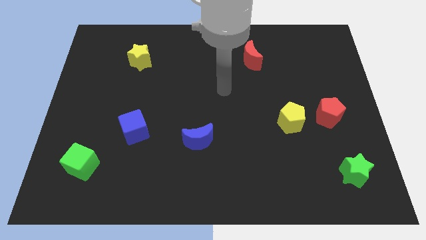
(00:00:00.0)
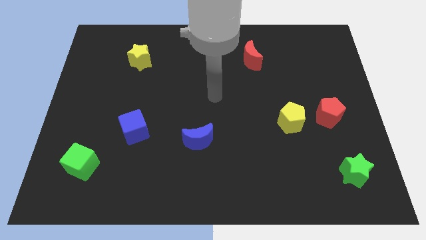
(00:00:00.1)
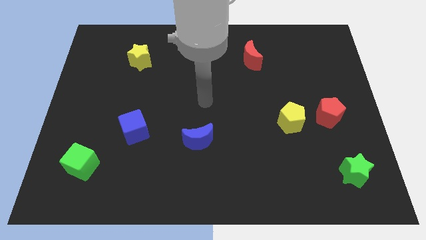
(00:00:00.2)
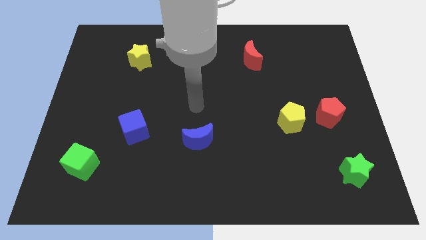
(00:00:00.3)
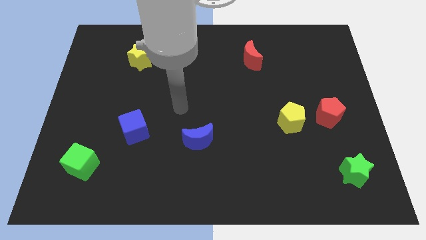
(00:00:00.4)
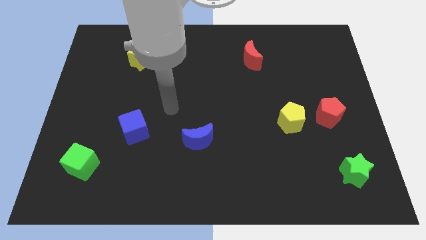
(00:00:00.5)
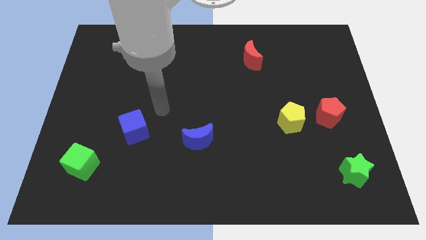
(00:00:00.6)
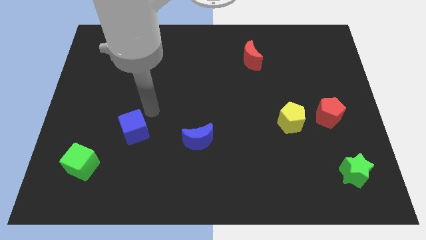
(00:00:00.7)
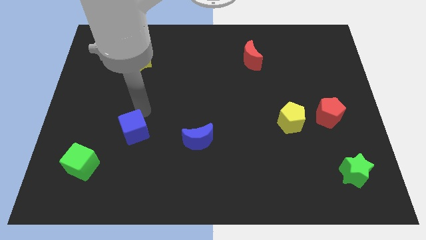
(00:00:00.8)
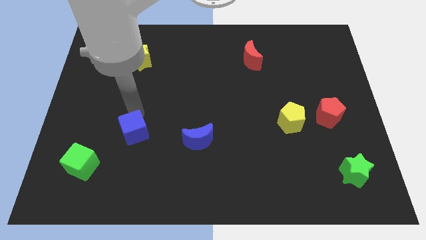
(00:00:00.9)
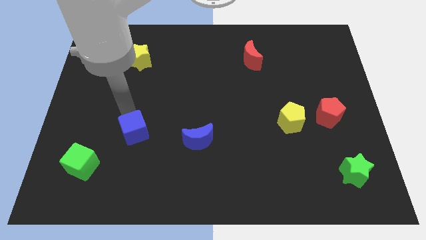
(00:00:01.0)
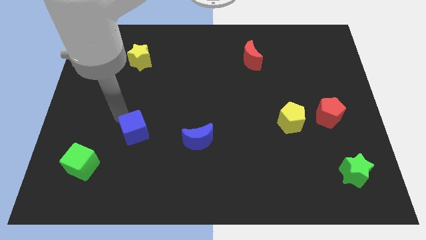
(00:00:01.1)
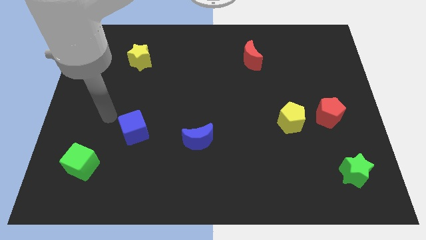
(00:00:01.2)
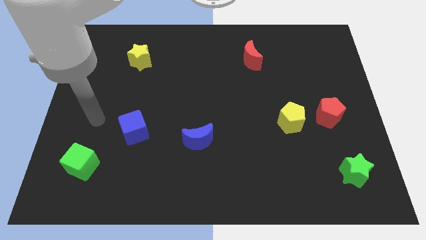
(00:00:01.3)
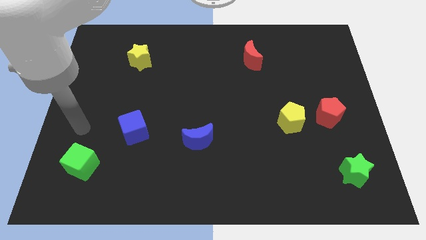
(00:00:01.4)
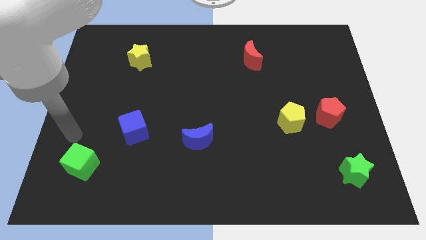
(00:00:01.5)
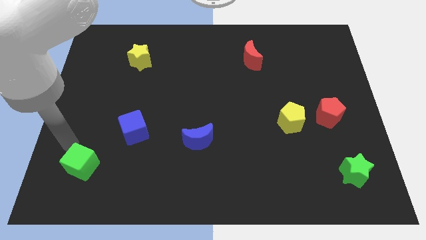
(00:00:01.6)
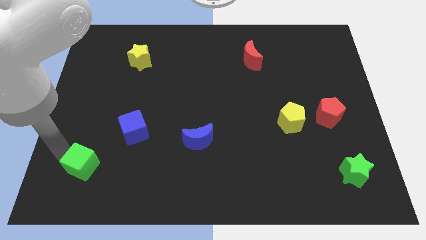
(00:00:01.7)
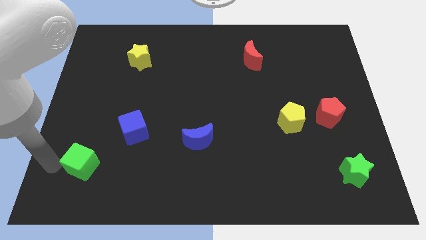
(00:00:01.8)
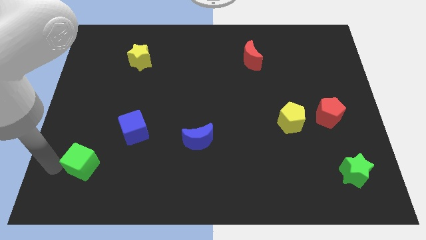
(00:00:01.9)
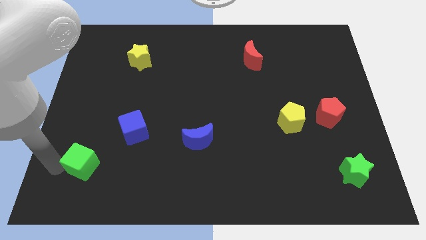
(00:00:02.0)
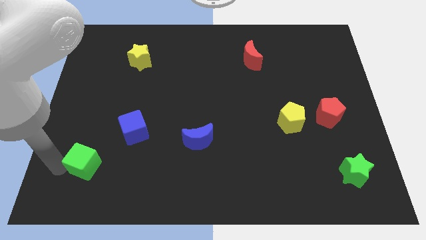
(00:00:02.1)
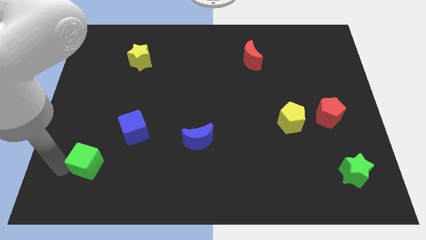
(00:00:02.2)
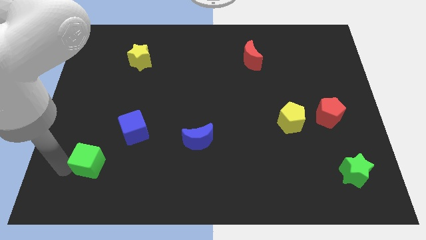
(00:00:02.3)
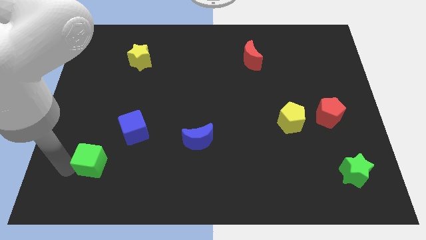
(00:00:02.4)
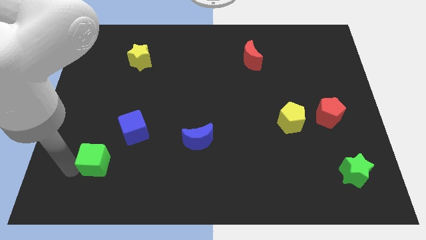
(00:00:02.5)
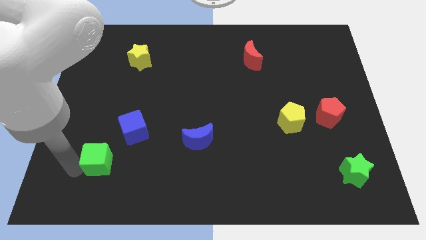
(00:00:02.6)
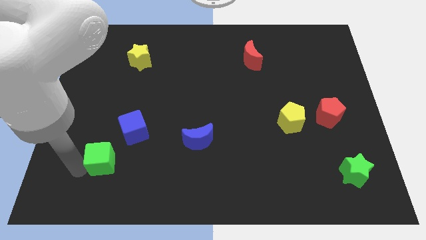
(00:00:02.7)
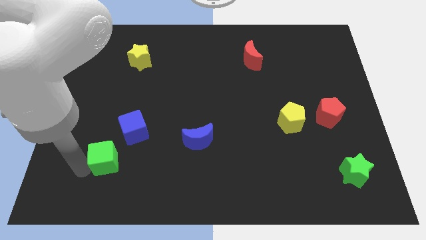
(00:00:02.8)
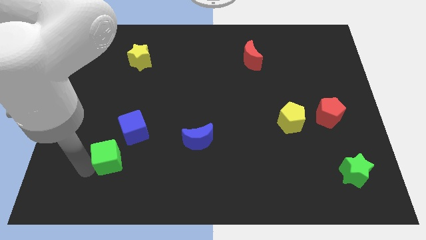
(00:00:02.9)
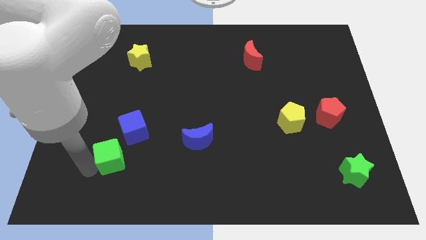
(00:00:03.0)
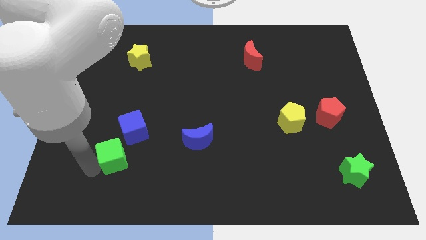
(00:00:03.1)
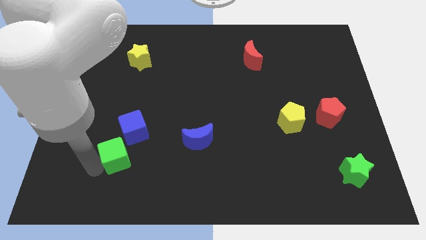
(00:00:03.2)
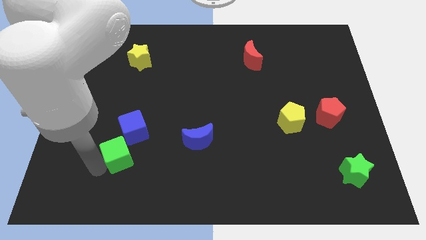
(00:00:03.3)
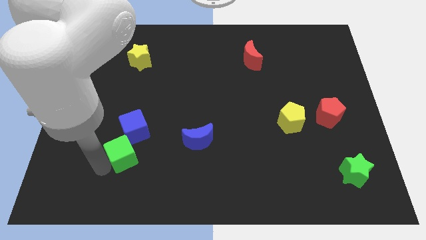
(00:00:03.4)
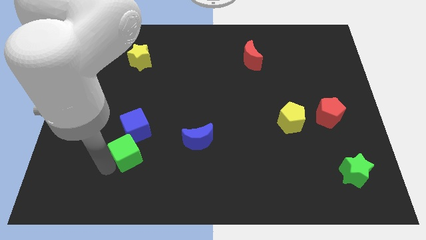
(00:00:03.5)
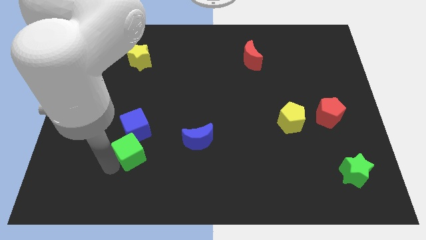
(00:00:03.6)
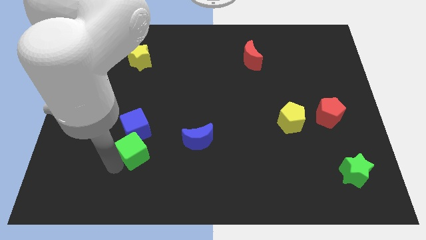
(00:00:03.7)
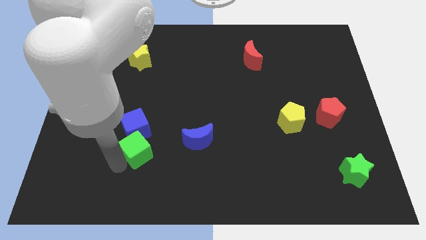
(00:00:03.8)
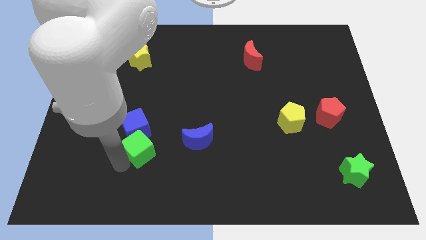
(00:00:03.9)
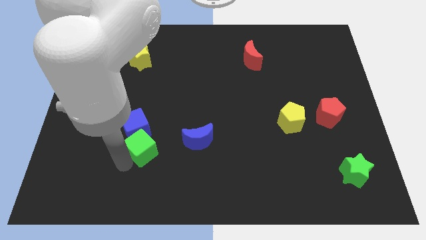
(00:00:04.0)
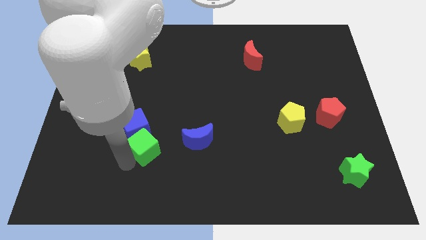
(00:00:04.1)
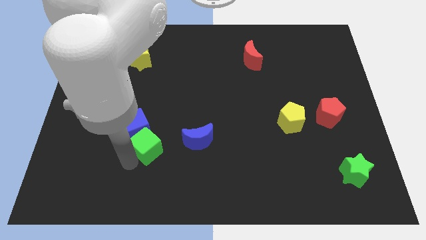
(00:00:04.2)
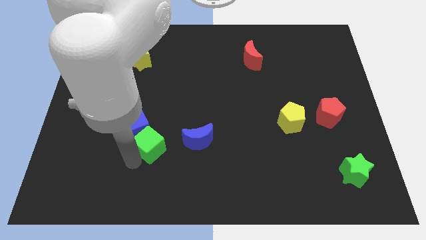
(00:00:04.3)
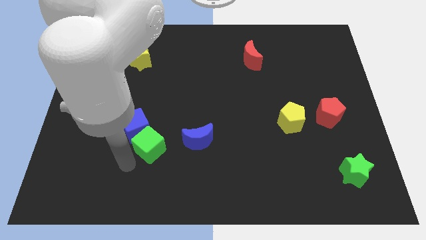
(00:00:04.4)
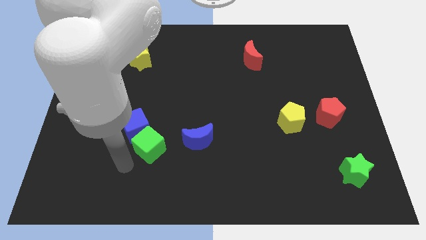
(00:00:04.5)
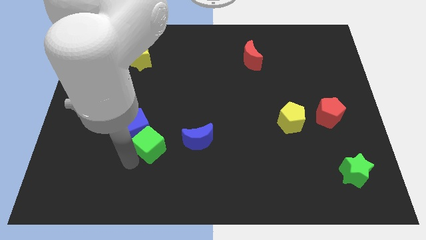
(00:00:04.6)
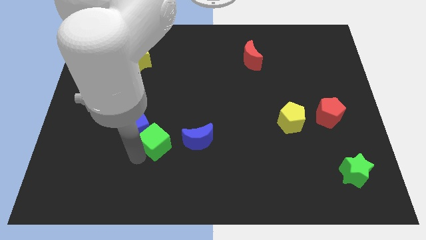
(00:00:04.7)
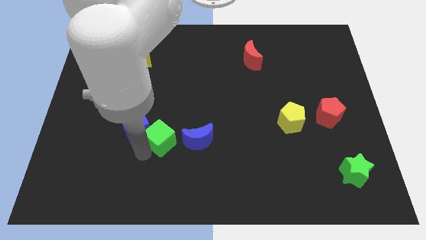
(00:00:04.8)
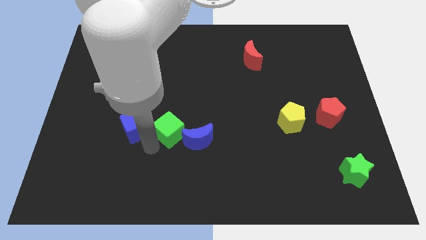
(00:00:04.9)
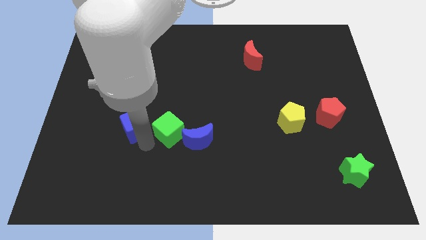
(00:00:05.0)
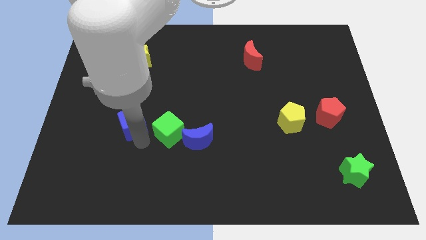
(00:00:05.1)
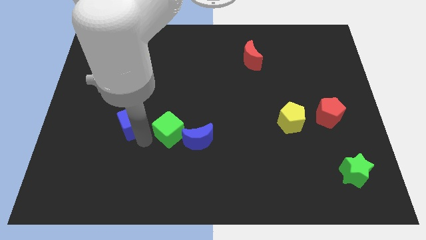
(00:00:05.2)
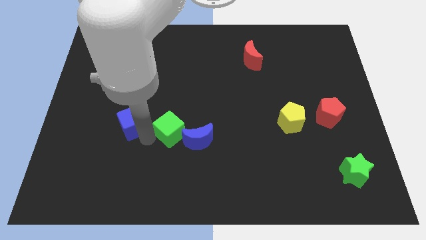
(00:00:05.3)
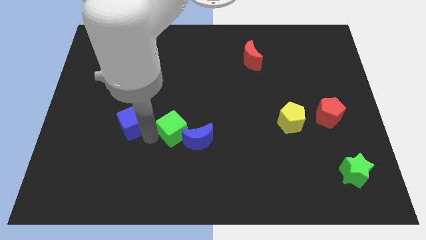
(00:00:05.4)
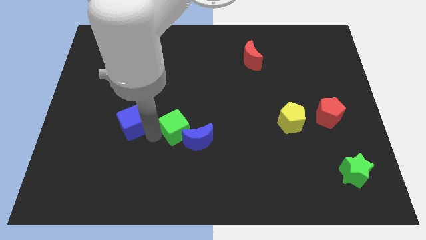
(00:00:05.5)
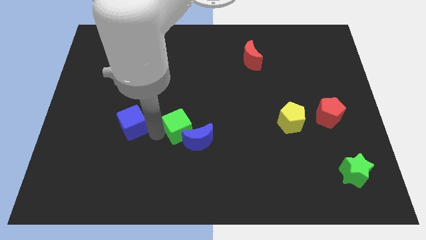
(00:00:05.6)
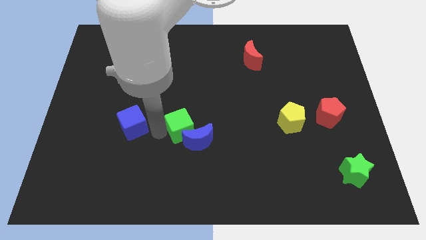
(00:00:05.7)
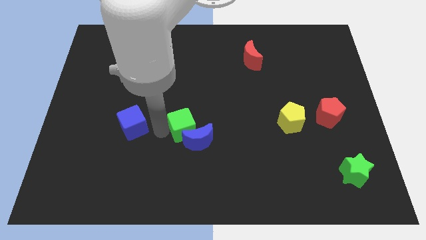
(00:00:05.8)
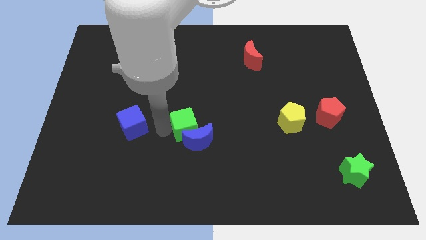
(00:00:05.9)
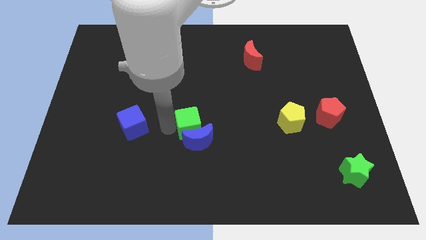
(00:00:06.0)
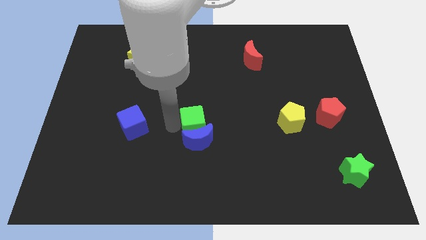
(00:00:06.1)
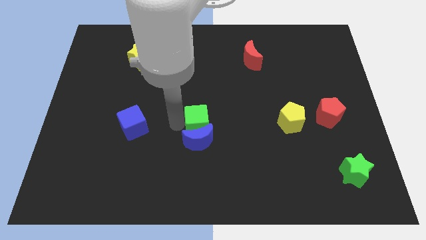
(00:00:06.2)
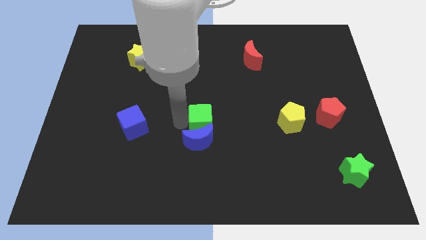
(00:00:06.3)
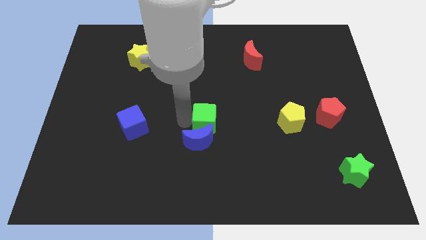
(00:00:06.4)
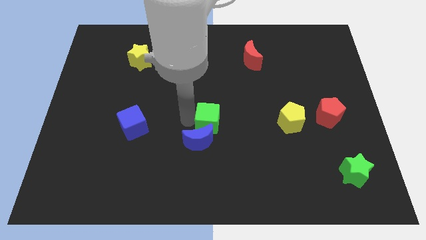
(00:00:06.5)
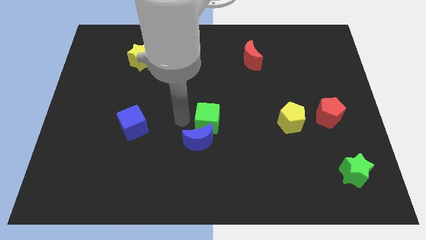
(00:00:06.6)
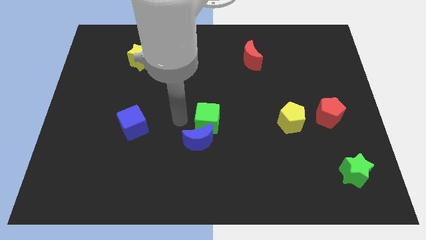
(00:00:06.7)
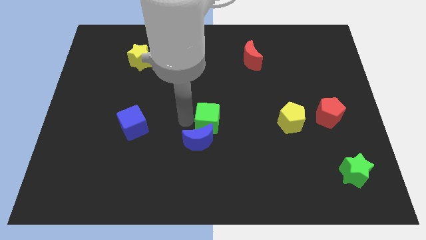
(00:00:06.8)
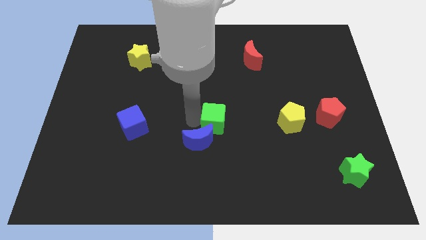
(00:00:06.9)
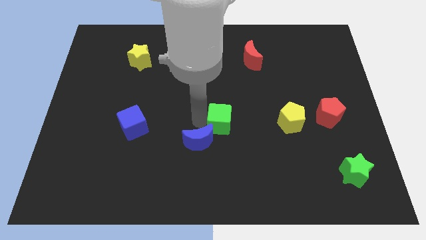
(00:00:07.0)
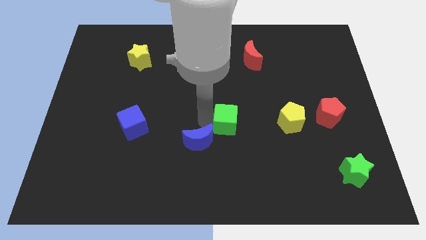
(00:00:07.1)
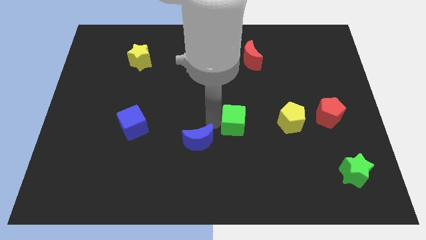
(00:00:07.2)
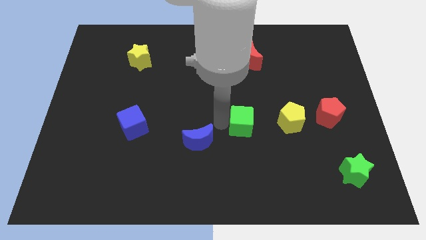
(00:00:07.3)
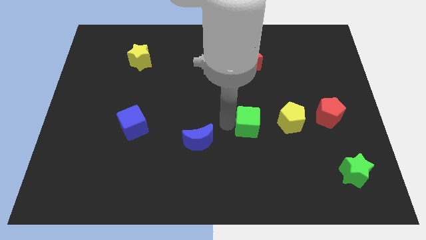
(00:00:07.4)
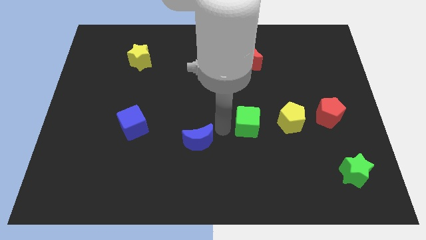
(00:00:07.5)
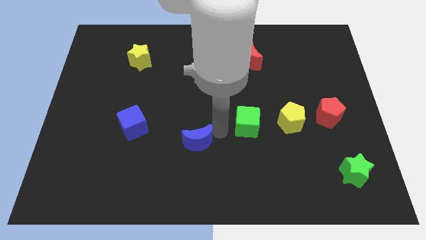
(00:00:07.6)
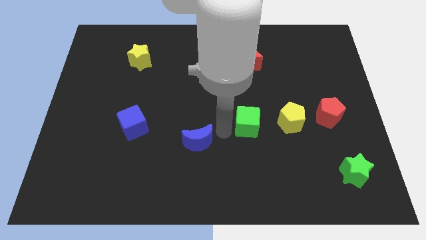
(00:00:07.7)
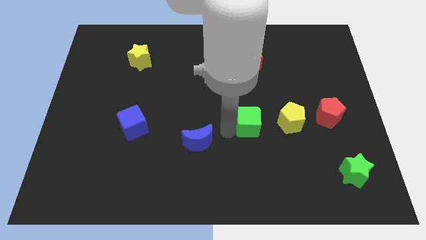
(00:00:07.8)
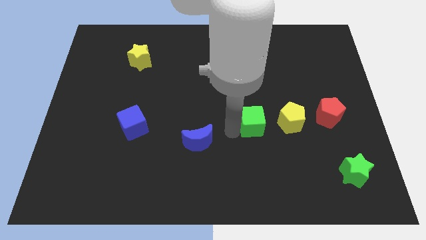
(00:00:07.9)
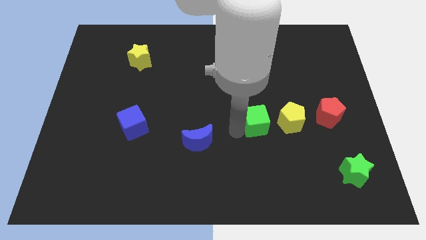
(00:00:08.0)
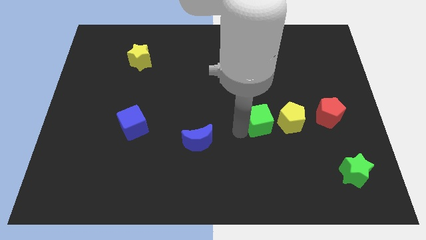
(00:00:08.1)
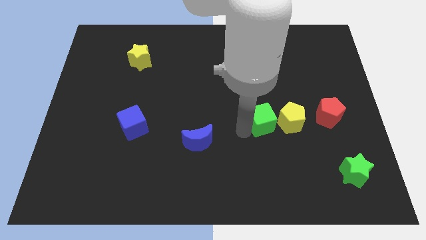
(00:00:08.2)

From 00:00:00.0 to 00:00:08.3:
put the green cube to the left side of the red pentagon
